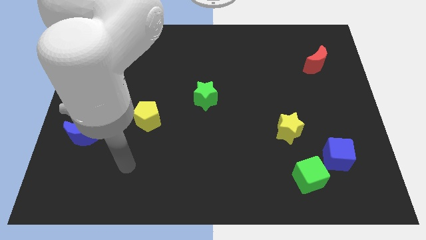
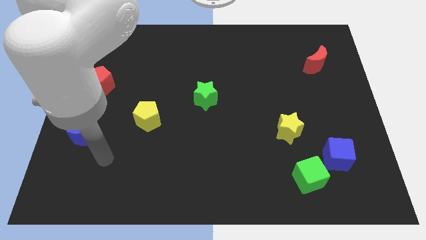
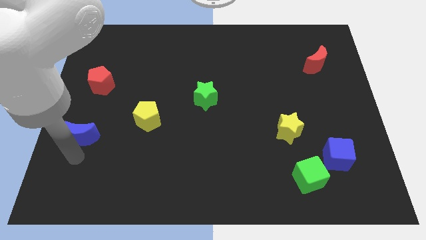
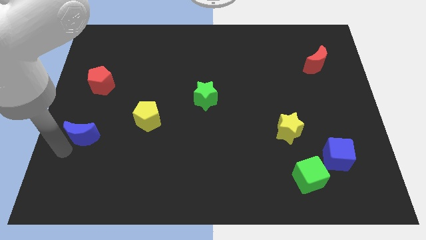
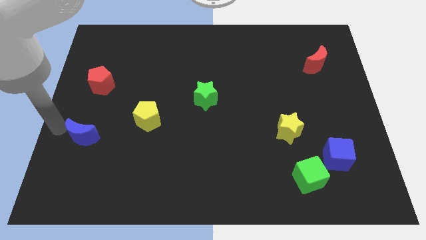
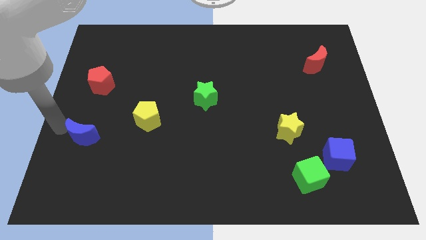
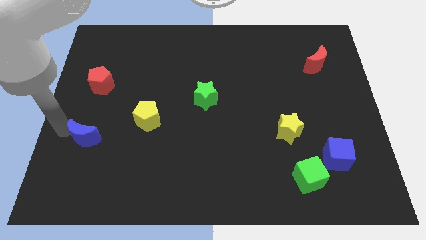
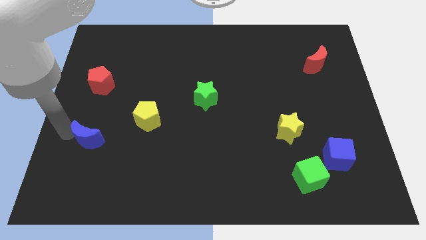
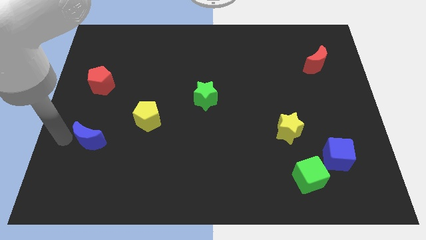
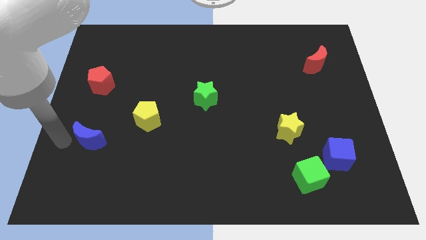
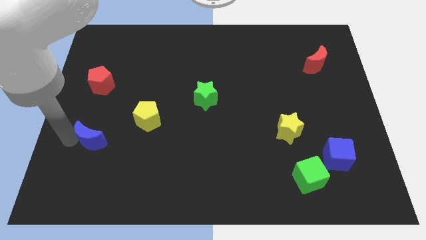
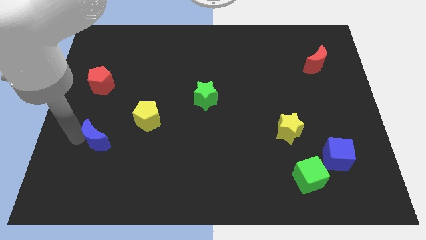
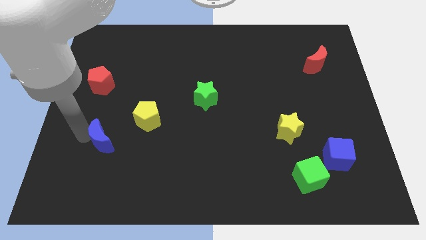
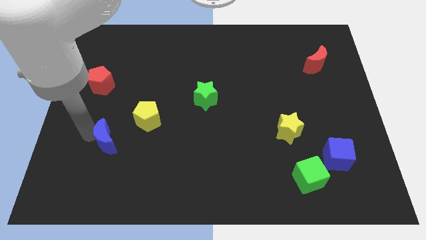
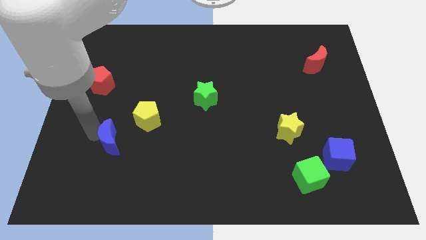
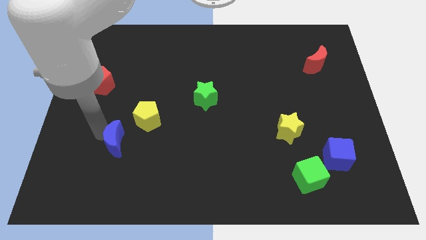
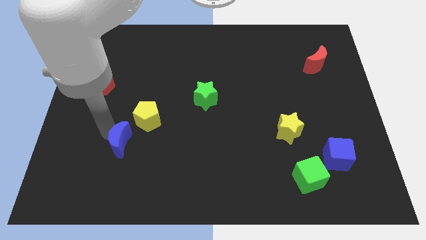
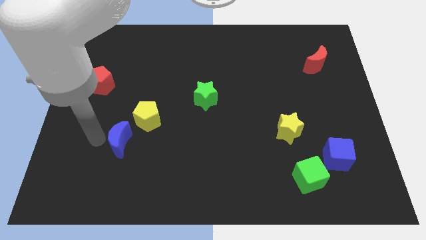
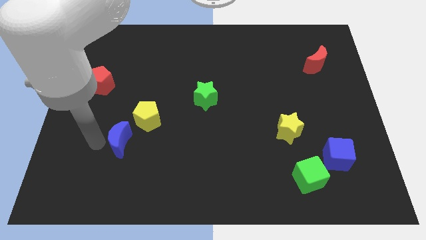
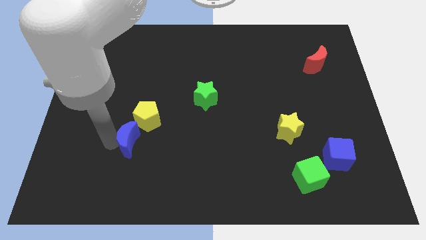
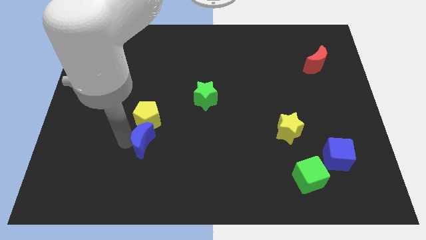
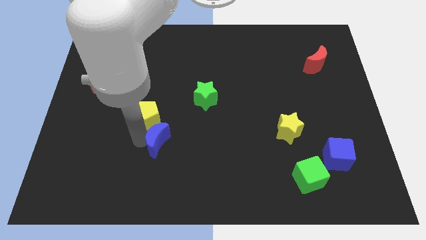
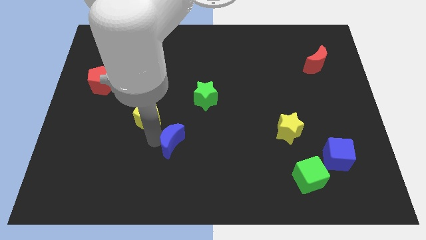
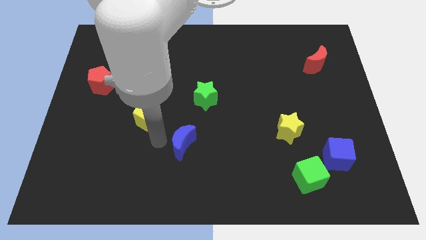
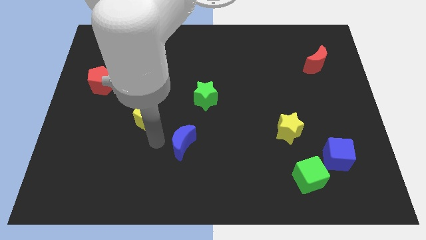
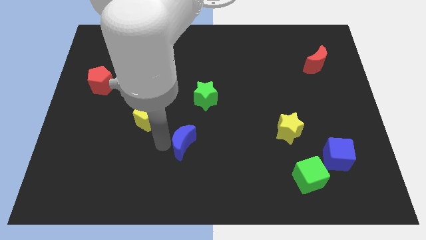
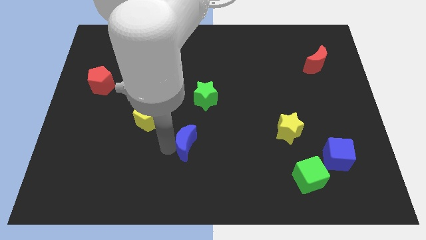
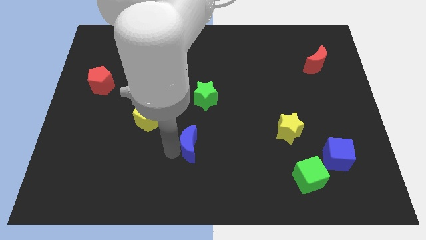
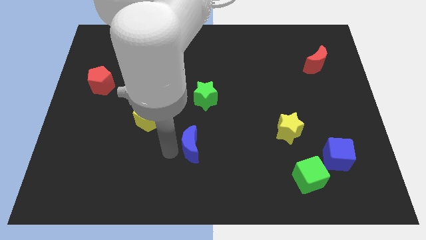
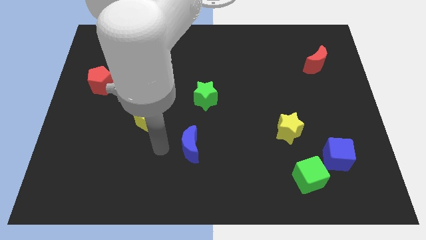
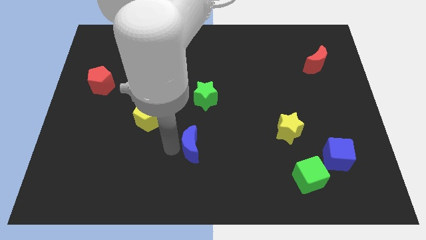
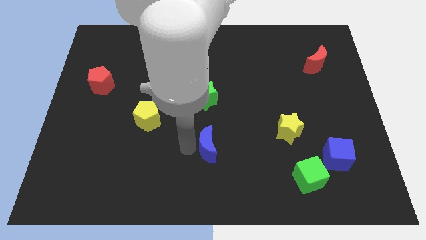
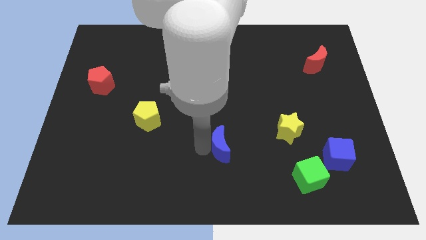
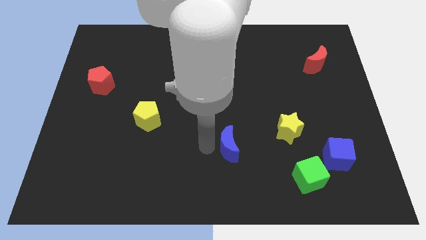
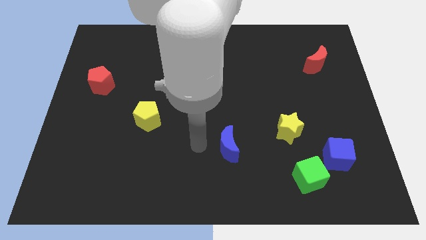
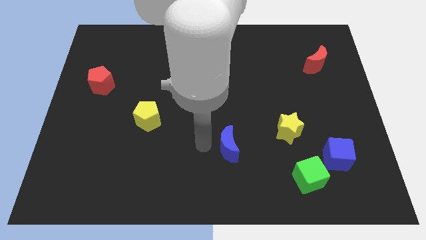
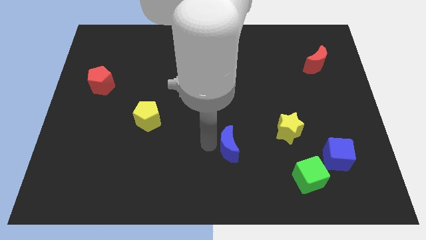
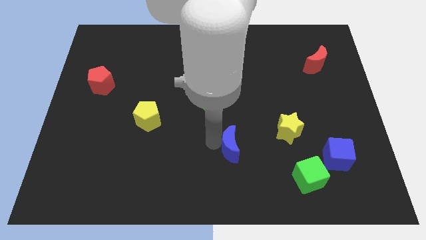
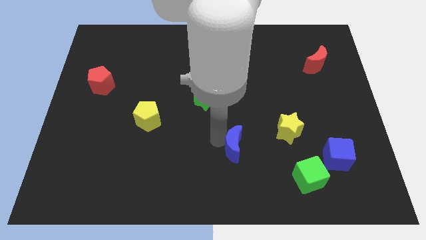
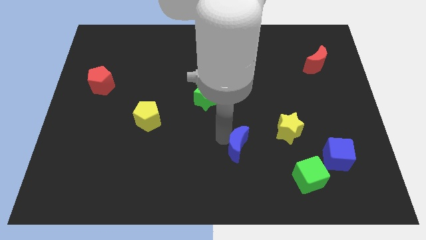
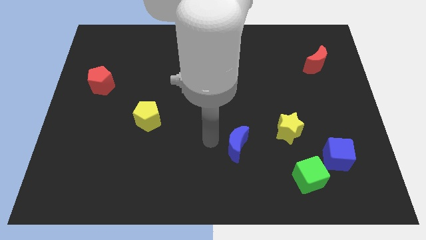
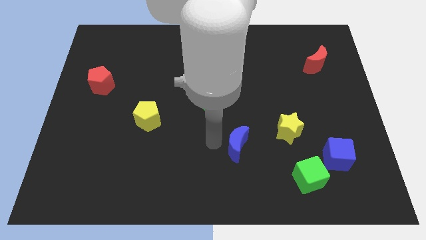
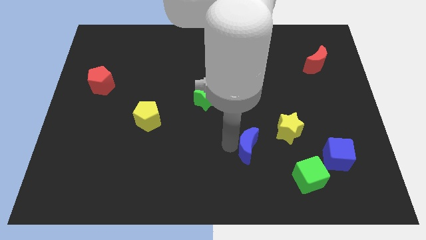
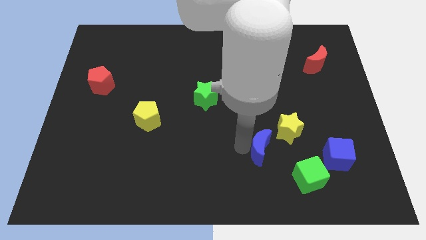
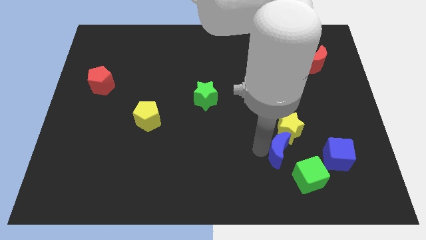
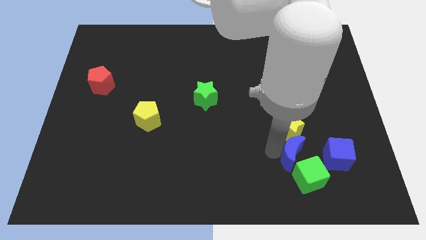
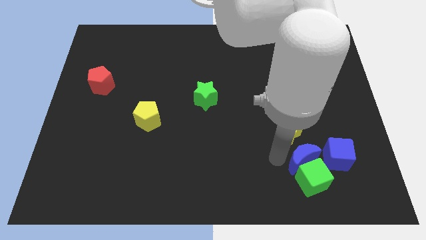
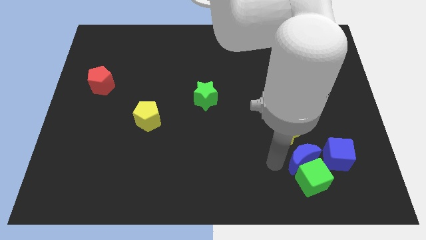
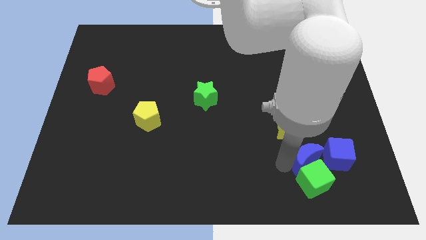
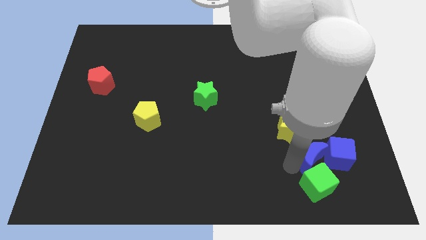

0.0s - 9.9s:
push the blue moon close to the blue cube

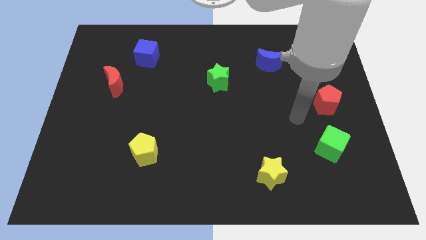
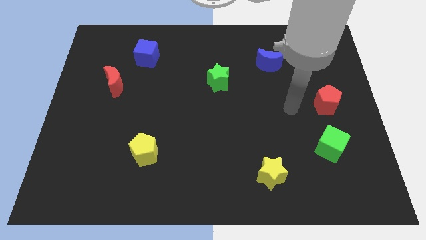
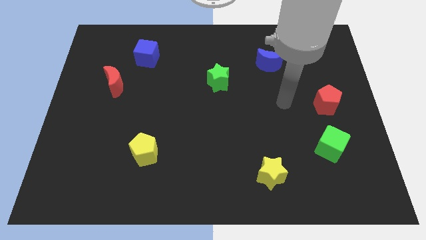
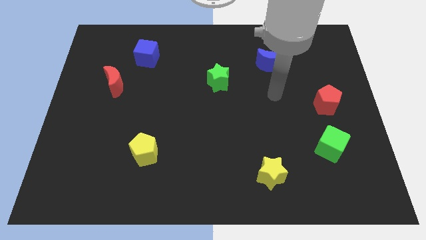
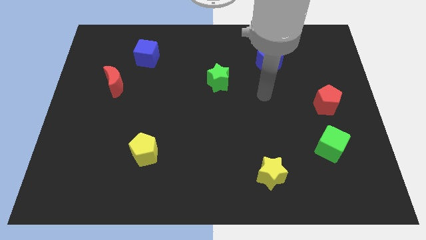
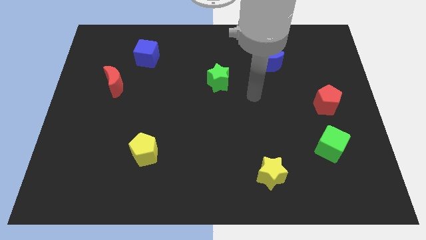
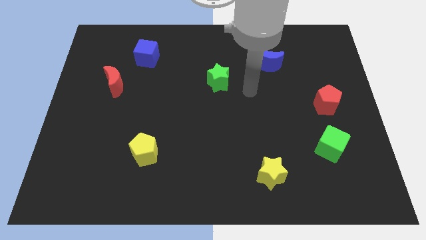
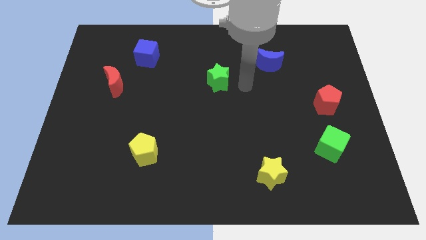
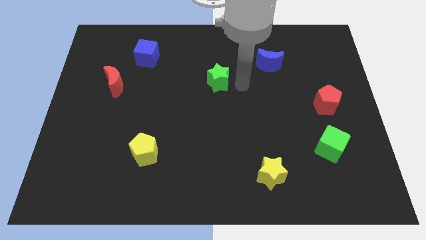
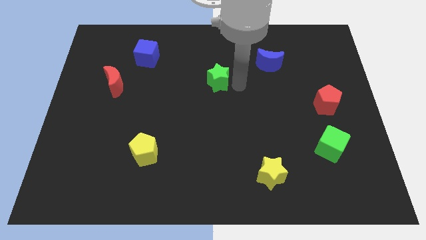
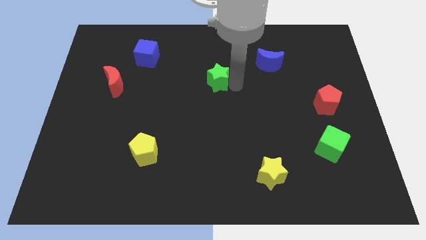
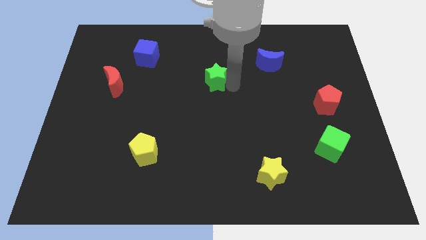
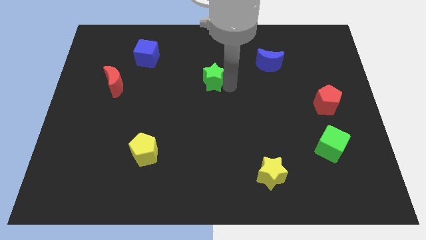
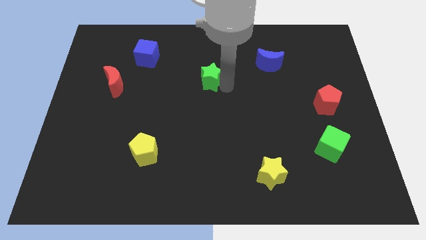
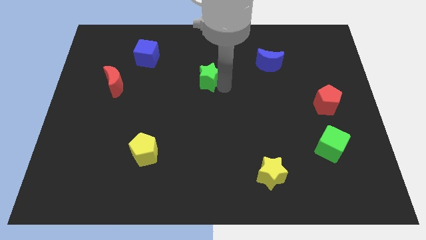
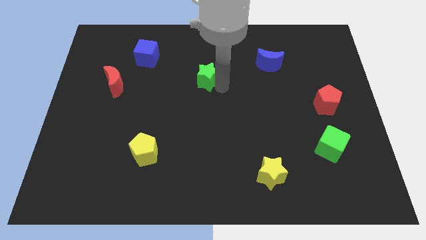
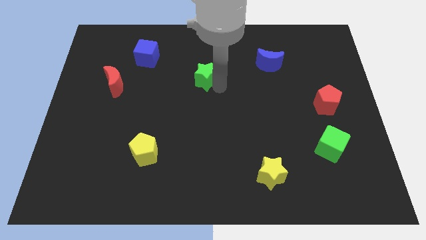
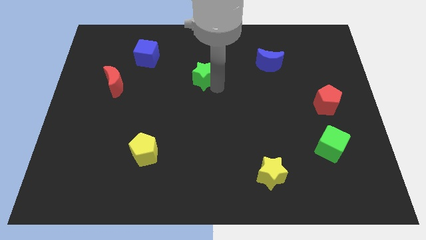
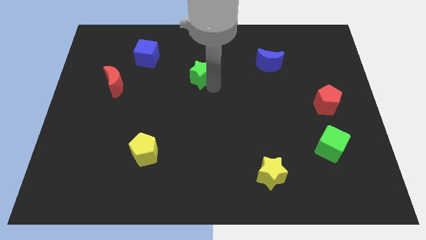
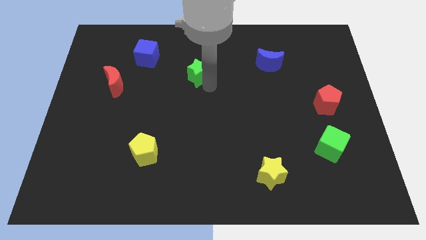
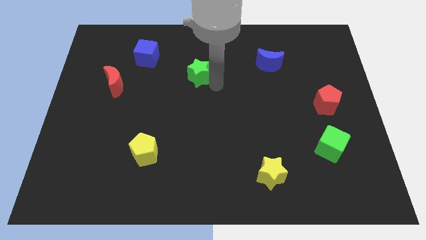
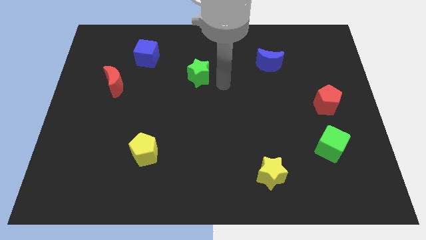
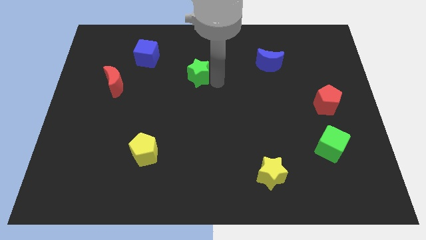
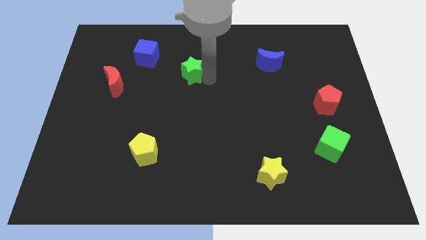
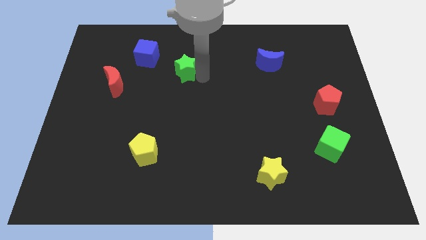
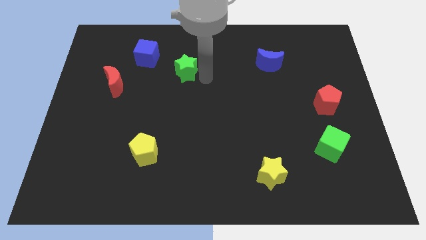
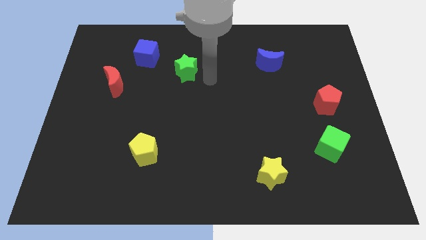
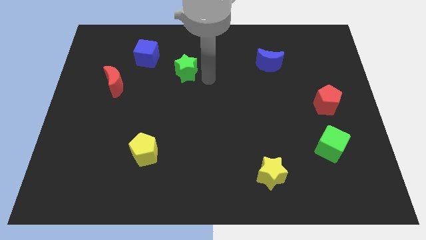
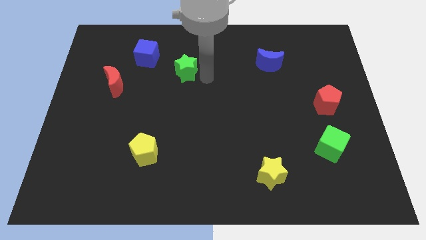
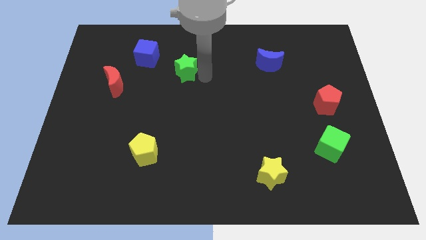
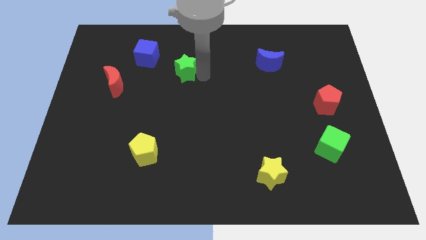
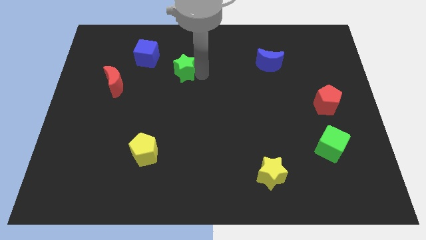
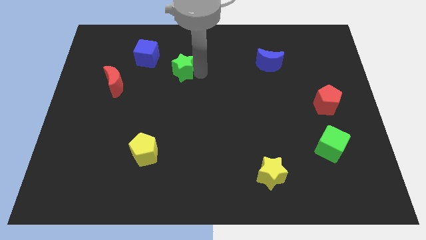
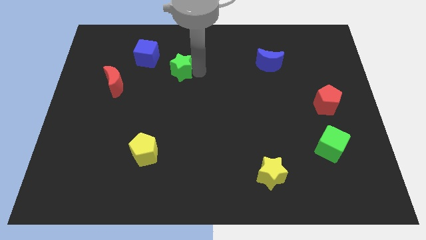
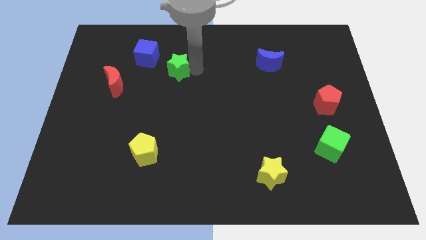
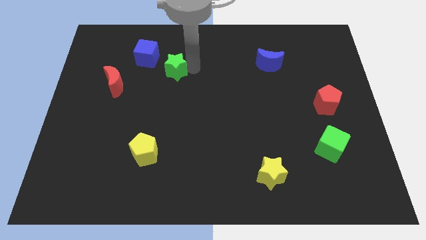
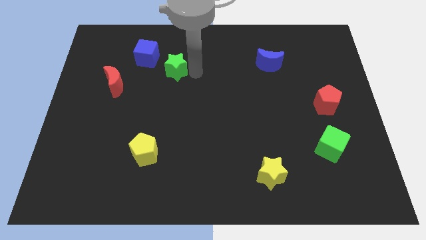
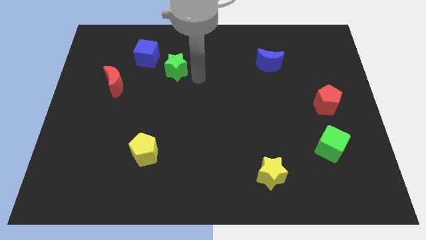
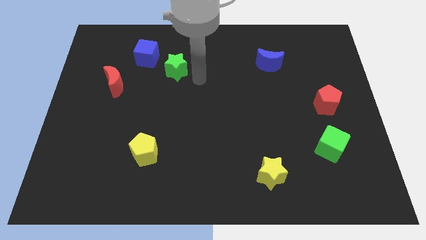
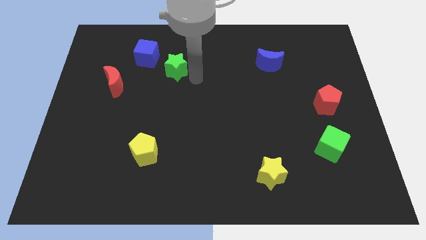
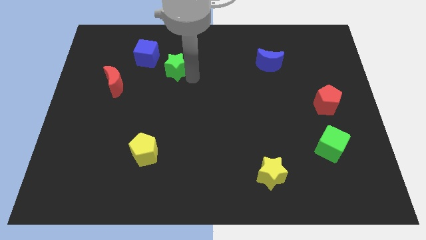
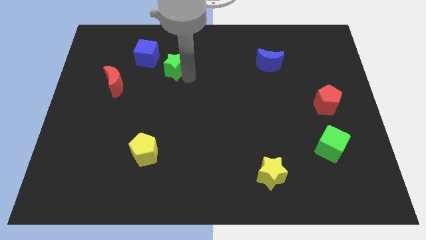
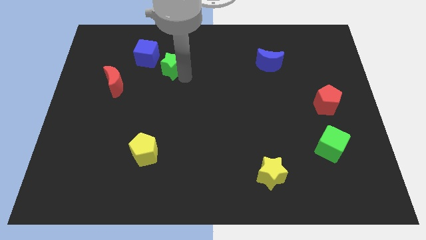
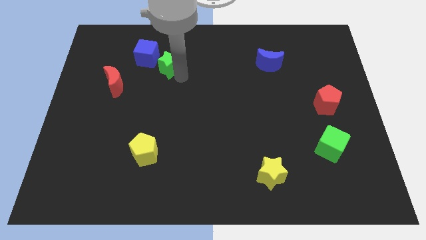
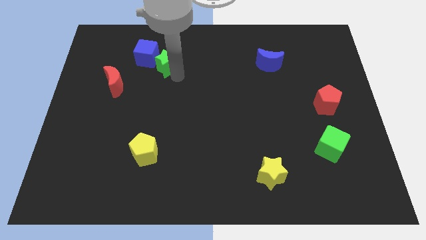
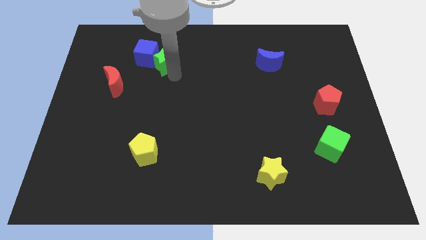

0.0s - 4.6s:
put the green star to the blue cube
